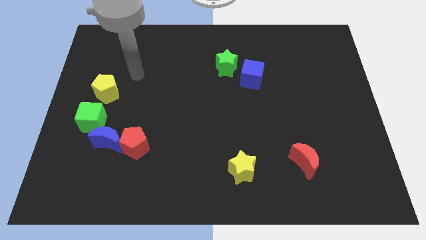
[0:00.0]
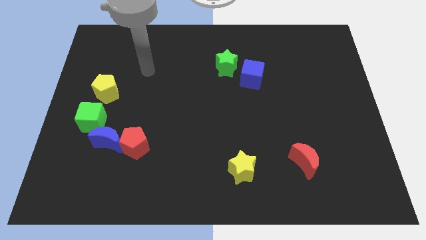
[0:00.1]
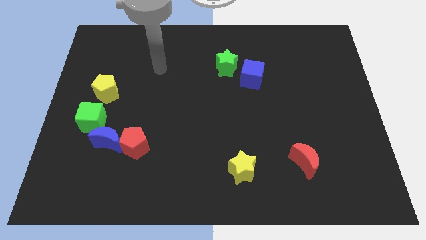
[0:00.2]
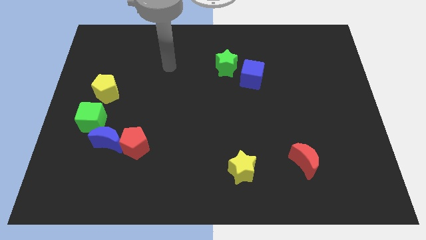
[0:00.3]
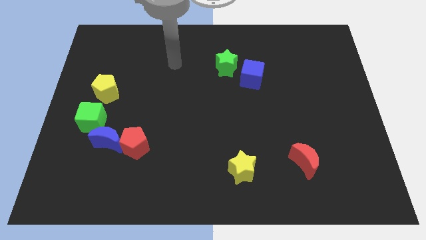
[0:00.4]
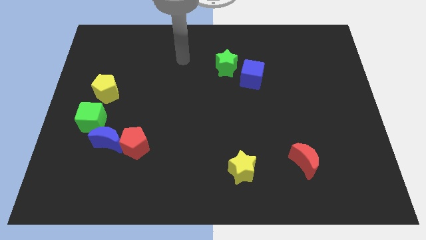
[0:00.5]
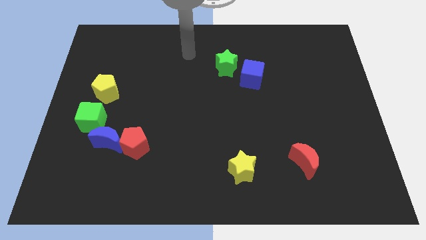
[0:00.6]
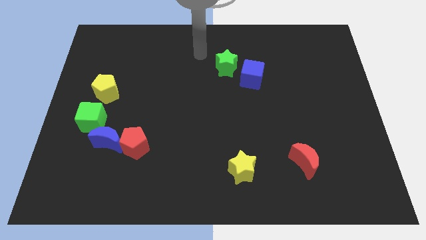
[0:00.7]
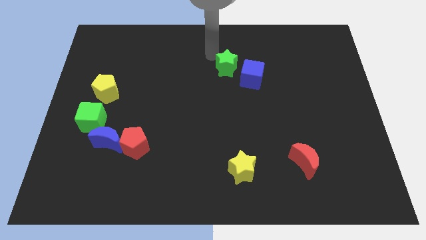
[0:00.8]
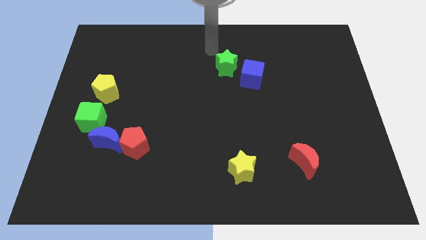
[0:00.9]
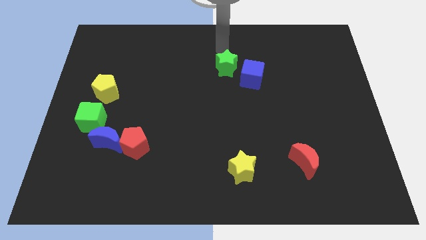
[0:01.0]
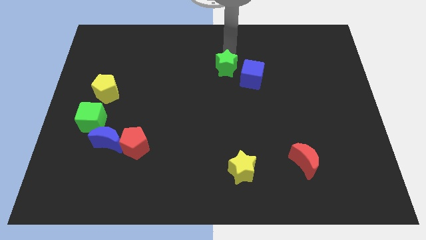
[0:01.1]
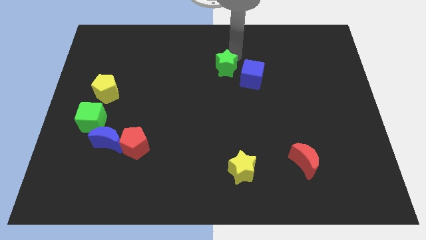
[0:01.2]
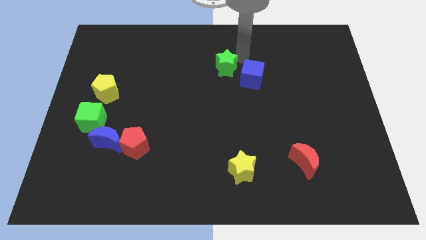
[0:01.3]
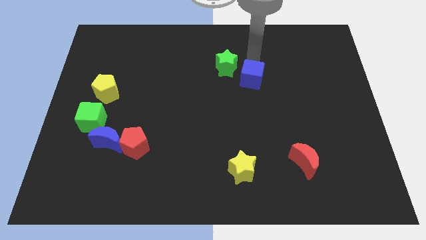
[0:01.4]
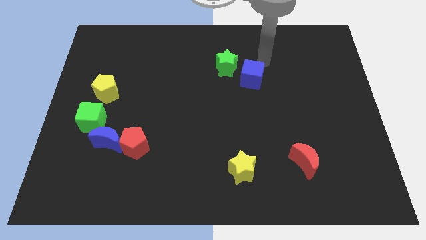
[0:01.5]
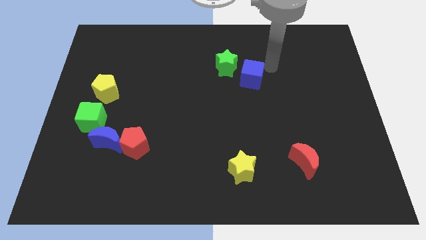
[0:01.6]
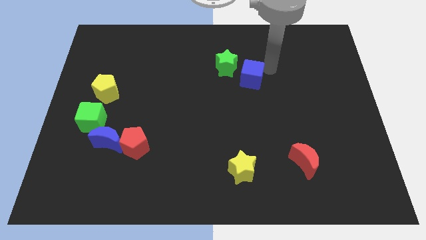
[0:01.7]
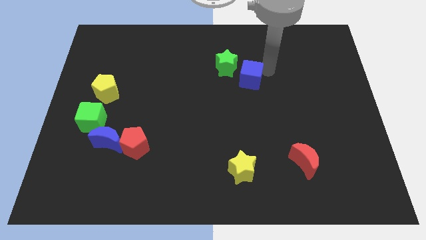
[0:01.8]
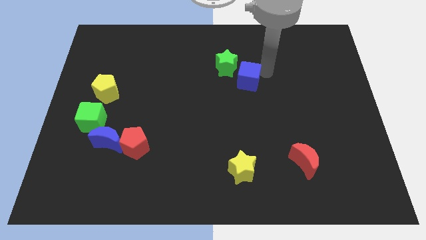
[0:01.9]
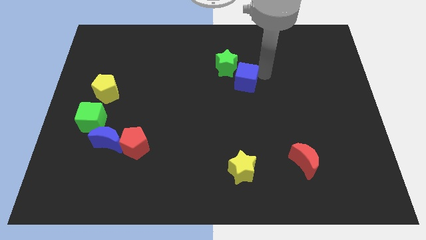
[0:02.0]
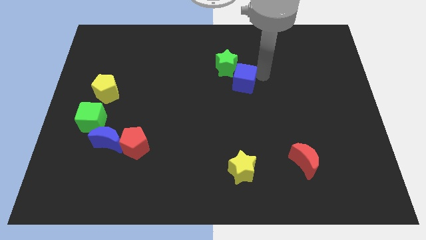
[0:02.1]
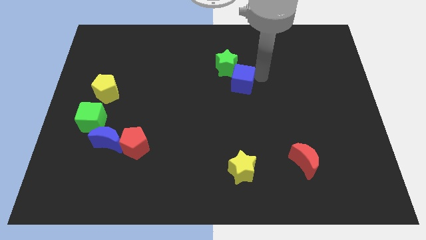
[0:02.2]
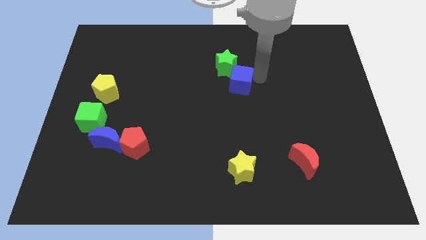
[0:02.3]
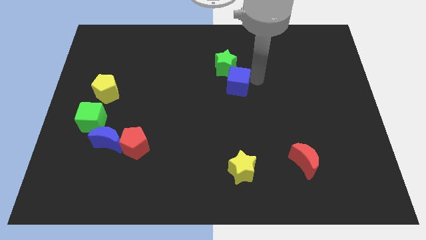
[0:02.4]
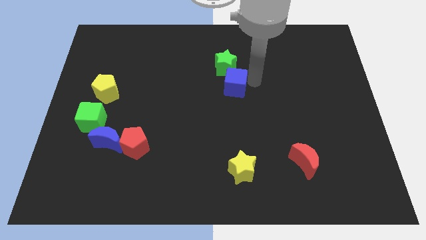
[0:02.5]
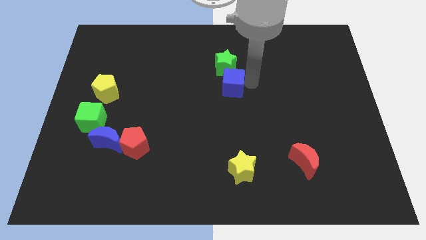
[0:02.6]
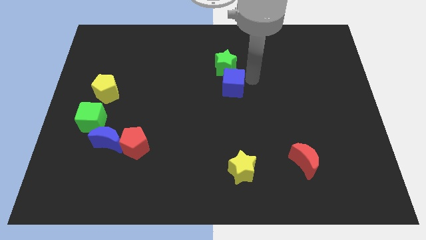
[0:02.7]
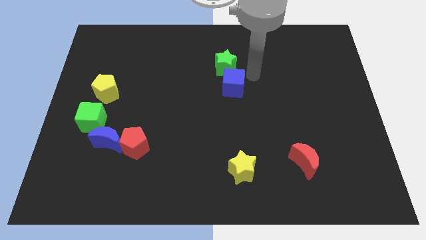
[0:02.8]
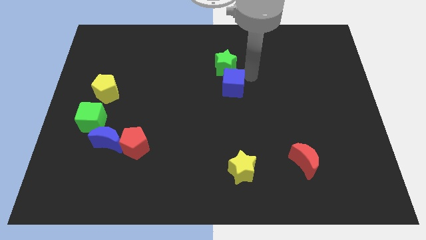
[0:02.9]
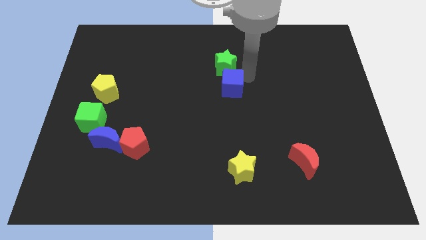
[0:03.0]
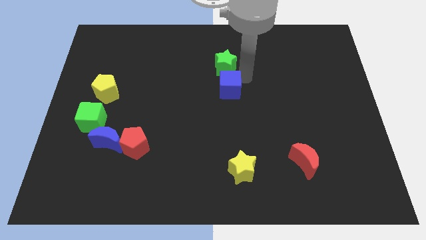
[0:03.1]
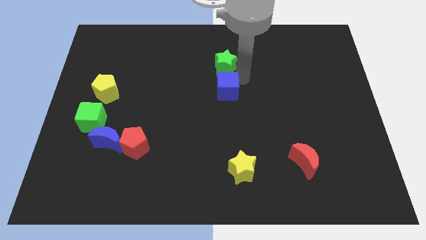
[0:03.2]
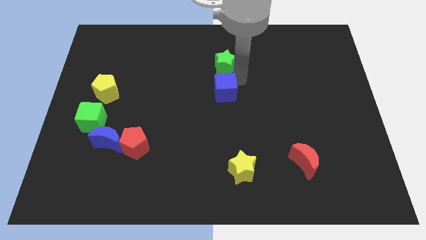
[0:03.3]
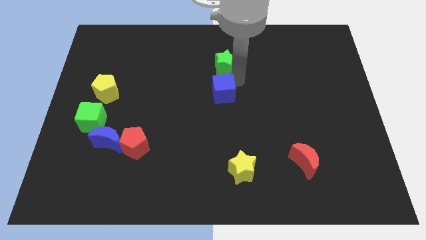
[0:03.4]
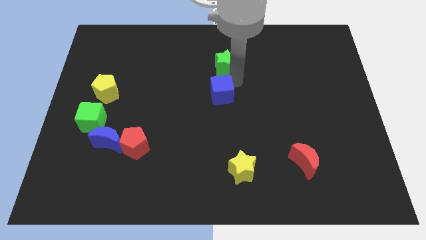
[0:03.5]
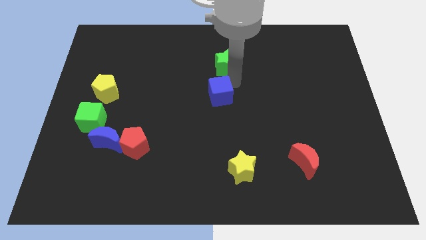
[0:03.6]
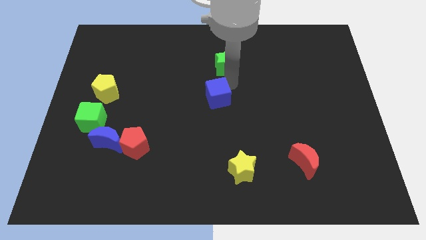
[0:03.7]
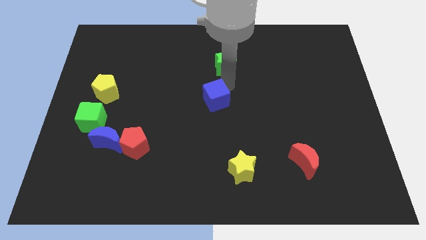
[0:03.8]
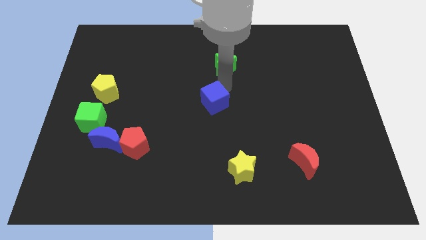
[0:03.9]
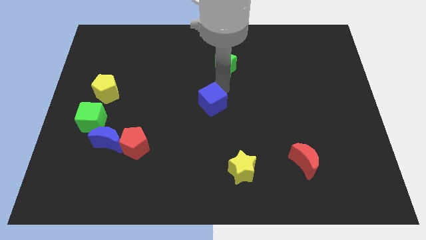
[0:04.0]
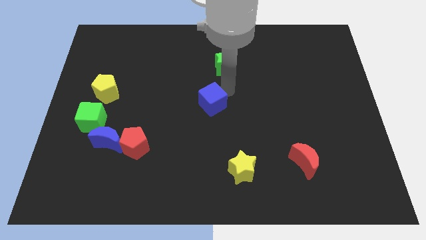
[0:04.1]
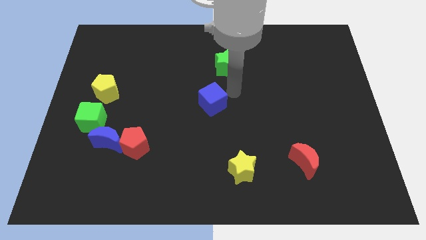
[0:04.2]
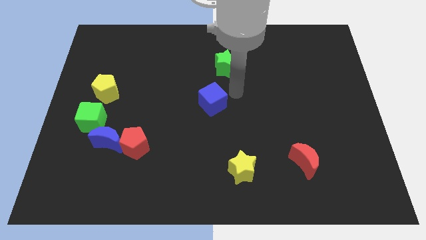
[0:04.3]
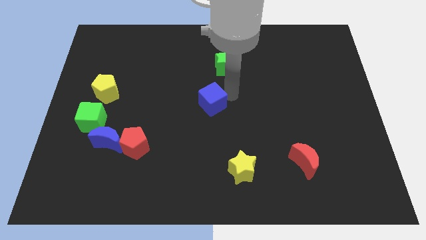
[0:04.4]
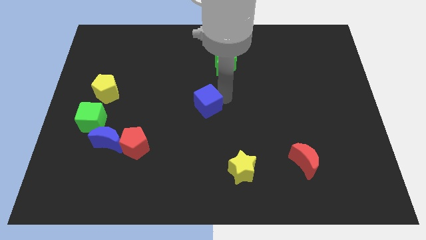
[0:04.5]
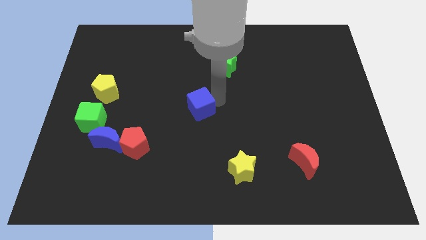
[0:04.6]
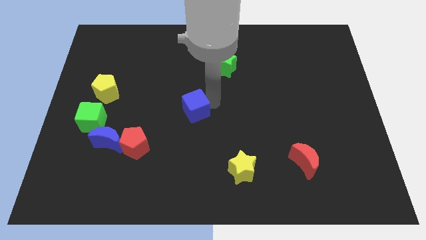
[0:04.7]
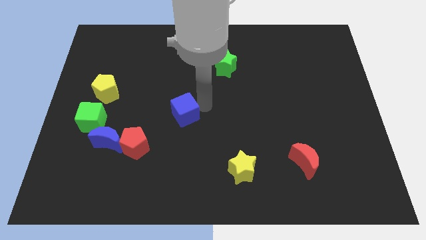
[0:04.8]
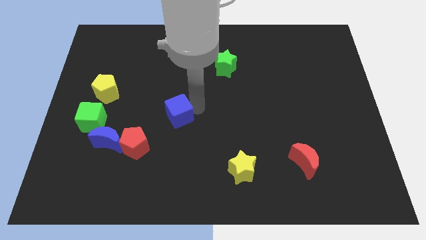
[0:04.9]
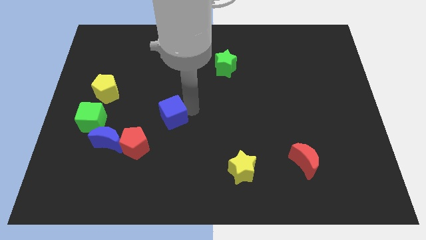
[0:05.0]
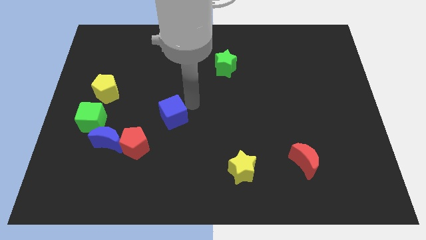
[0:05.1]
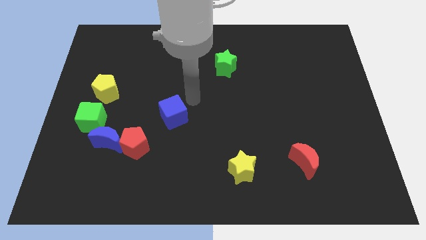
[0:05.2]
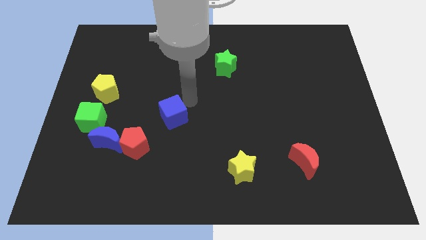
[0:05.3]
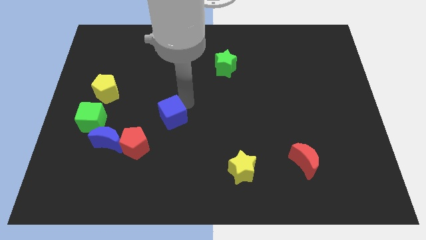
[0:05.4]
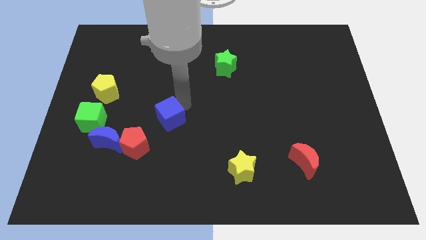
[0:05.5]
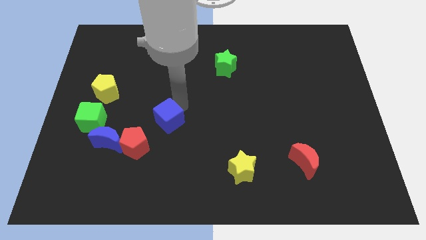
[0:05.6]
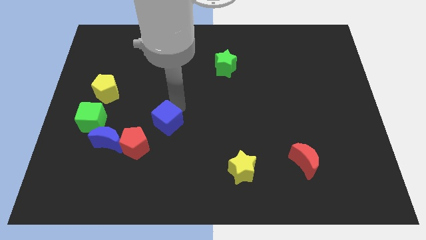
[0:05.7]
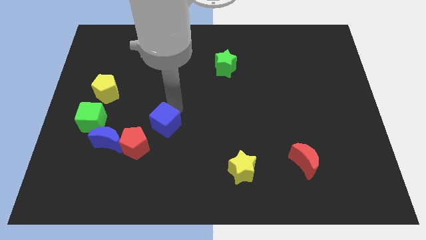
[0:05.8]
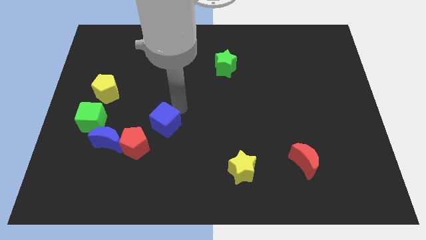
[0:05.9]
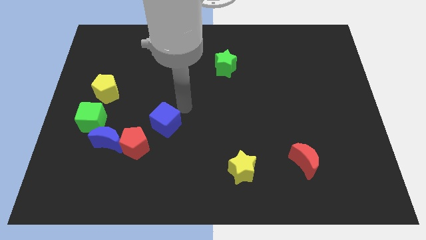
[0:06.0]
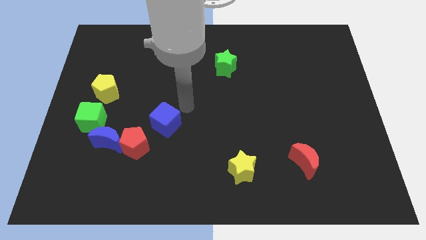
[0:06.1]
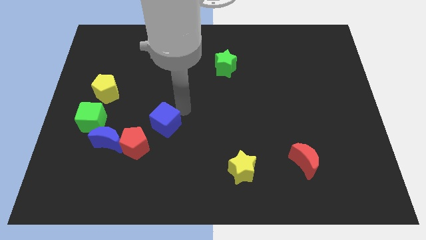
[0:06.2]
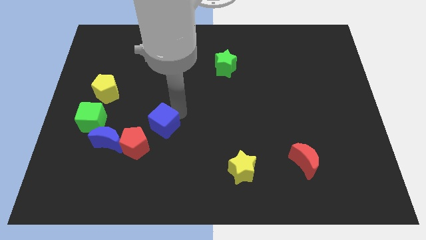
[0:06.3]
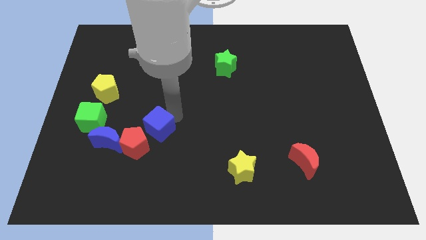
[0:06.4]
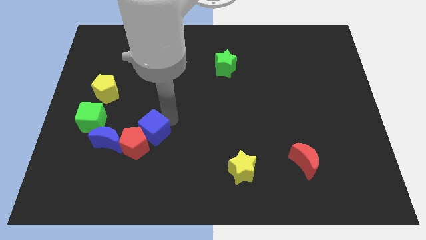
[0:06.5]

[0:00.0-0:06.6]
slide the blue cube to the red pentagon

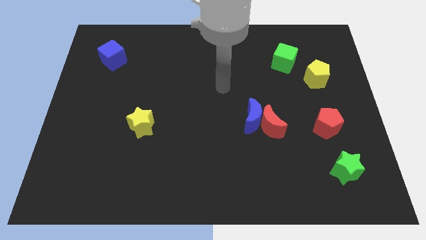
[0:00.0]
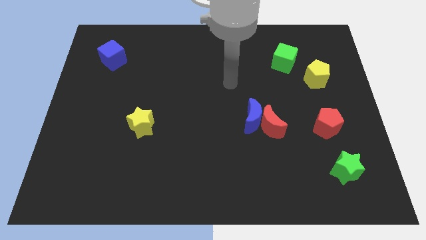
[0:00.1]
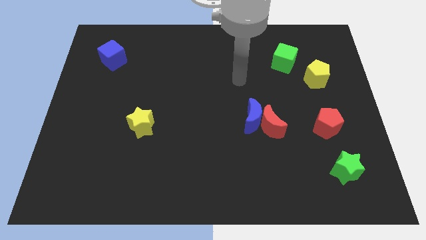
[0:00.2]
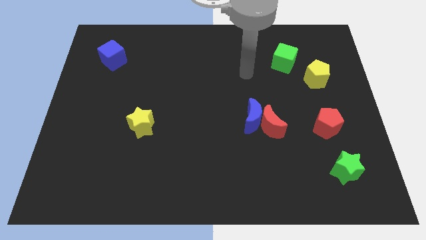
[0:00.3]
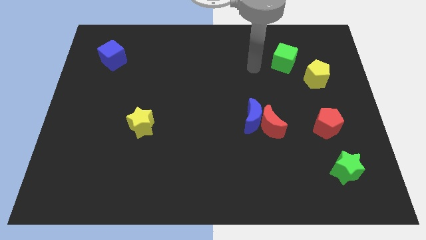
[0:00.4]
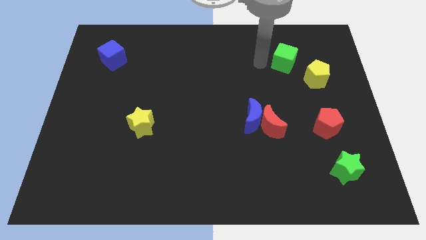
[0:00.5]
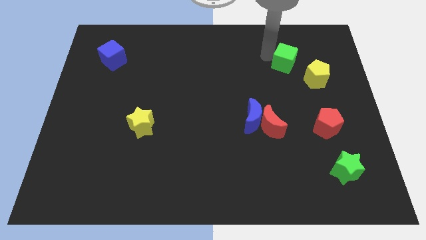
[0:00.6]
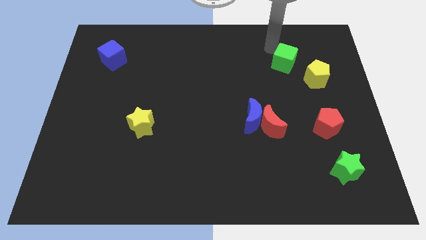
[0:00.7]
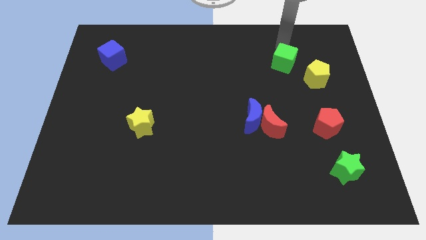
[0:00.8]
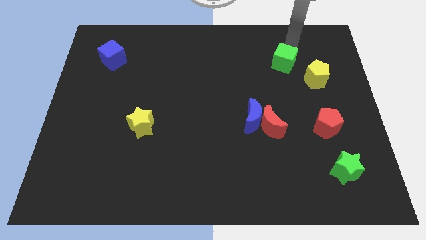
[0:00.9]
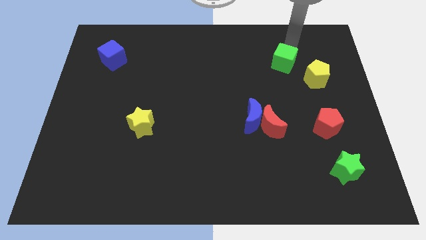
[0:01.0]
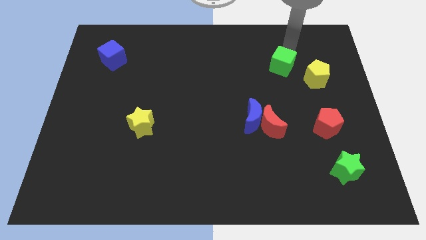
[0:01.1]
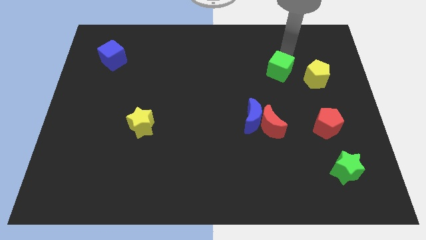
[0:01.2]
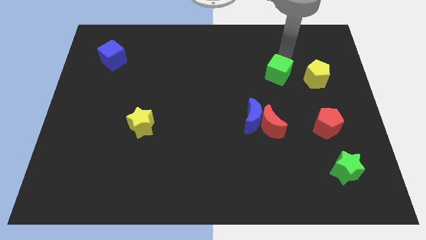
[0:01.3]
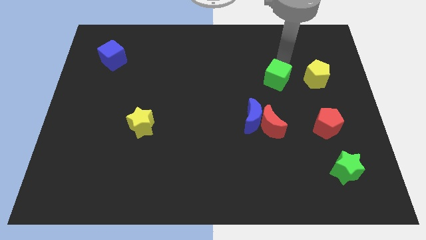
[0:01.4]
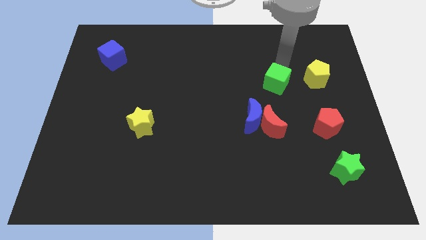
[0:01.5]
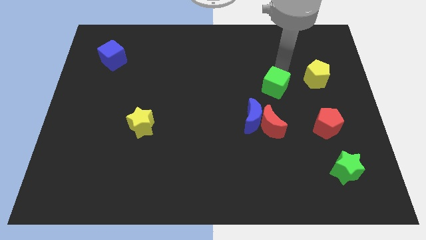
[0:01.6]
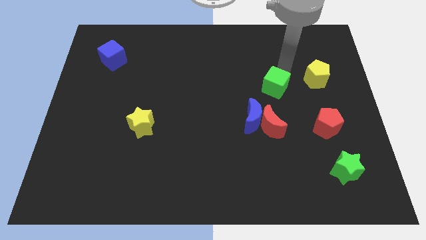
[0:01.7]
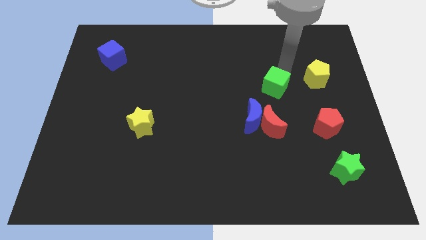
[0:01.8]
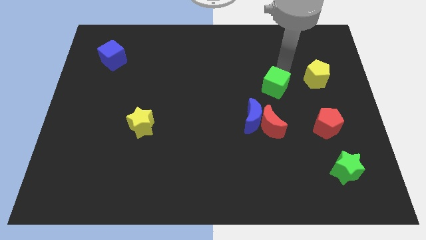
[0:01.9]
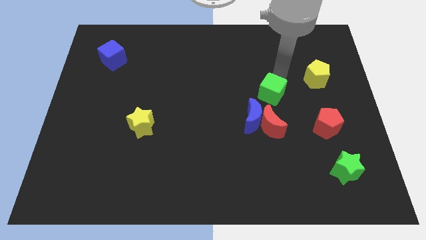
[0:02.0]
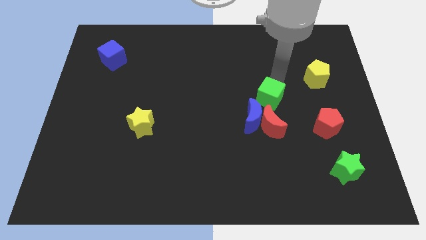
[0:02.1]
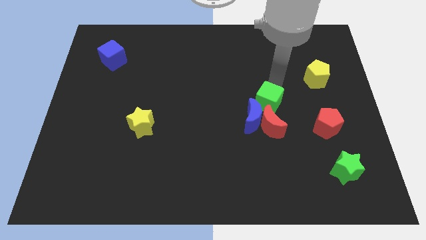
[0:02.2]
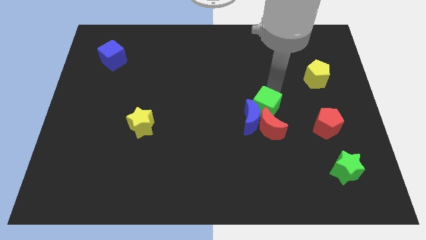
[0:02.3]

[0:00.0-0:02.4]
put the green cube close to the blue moon
